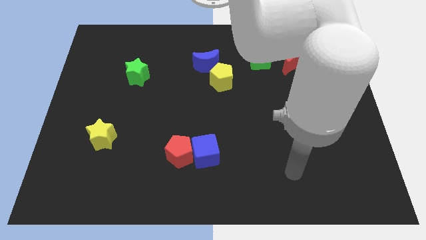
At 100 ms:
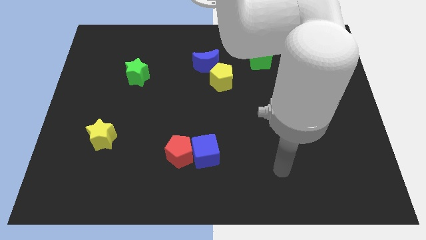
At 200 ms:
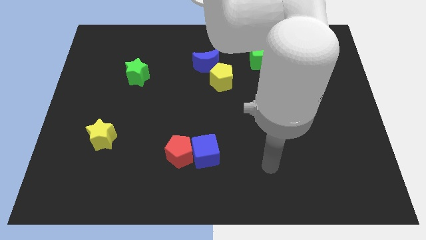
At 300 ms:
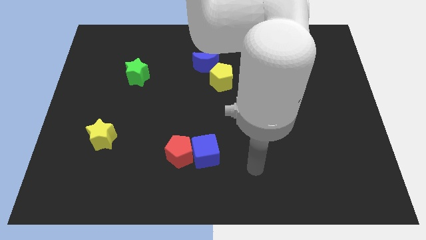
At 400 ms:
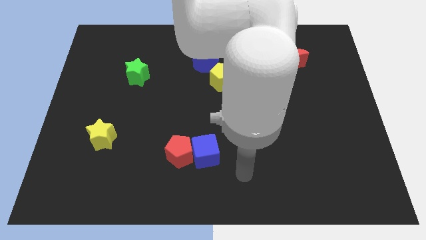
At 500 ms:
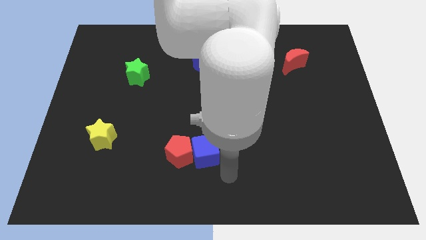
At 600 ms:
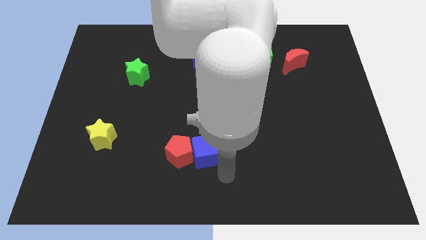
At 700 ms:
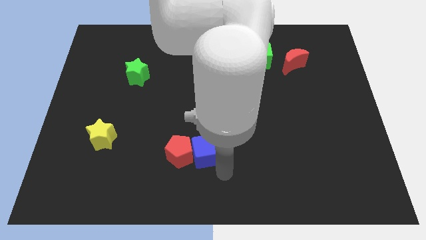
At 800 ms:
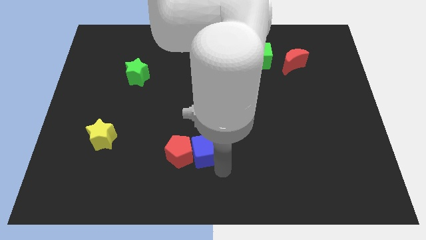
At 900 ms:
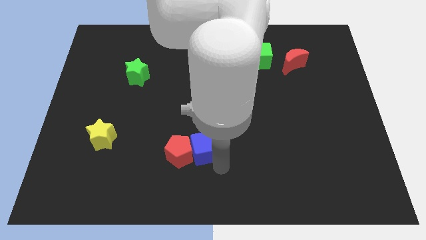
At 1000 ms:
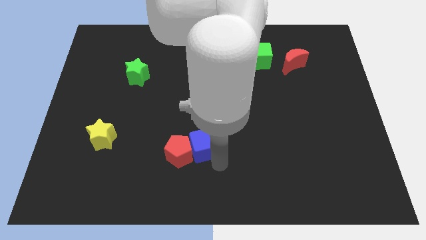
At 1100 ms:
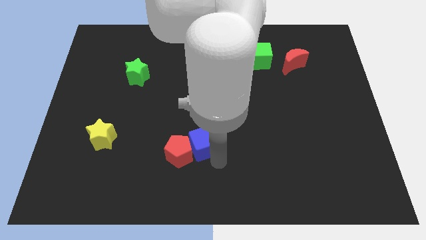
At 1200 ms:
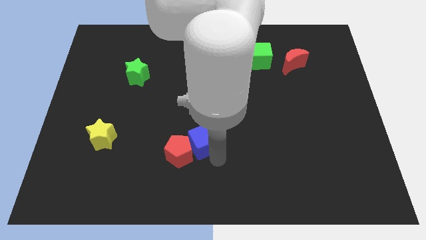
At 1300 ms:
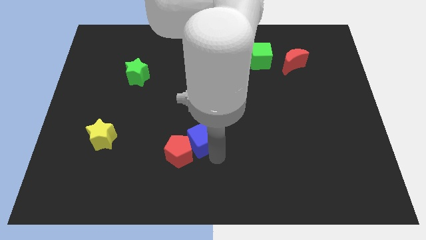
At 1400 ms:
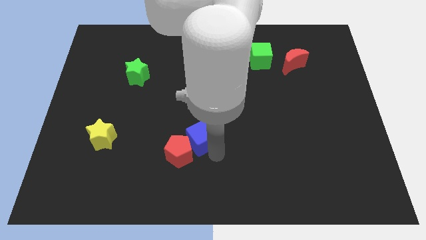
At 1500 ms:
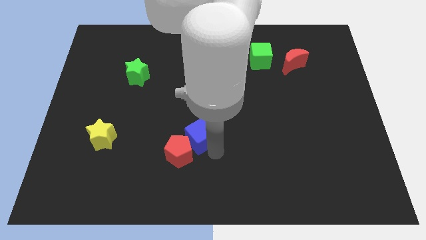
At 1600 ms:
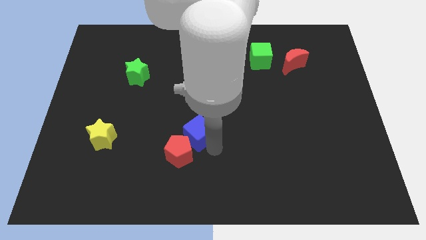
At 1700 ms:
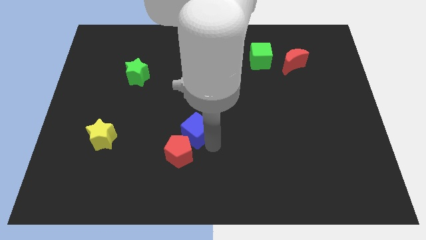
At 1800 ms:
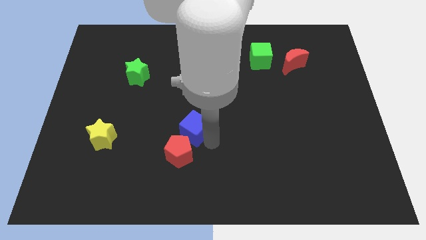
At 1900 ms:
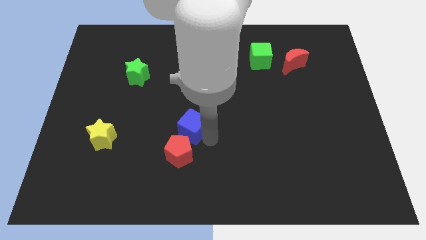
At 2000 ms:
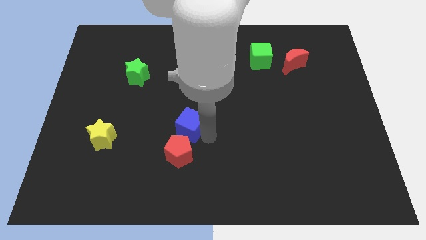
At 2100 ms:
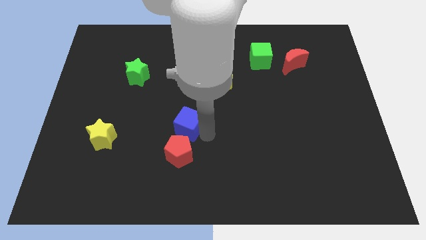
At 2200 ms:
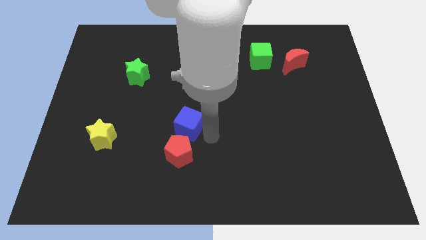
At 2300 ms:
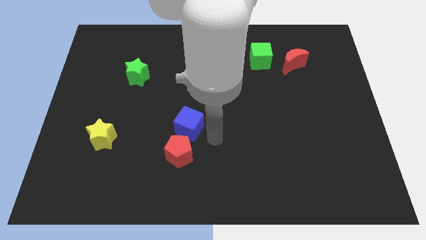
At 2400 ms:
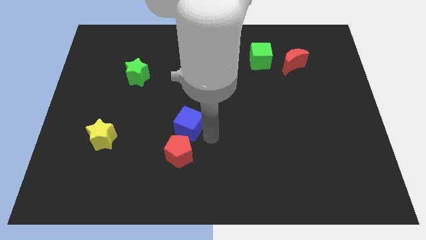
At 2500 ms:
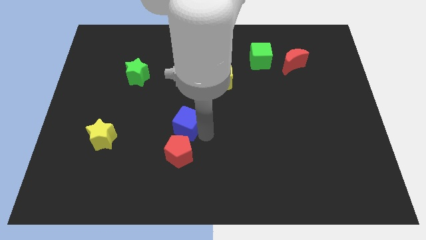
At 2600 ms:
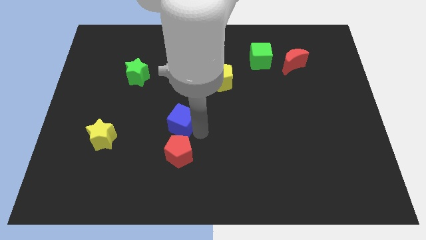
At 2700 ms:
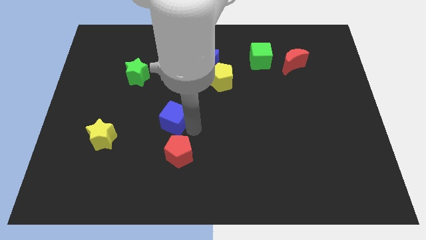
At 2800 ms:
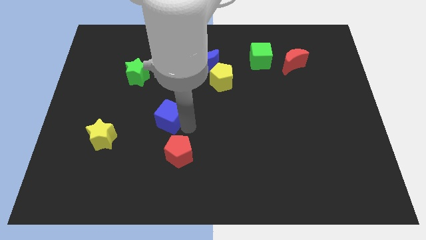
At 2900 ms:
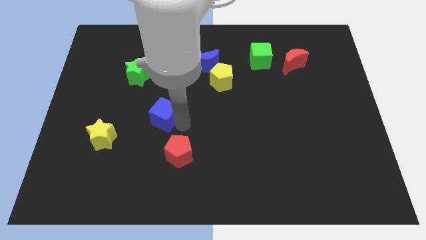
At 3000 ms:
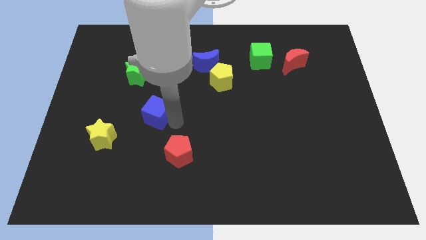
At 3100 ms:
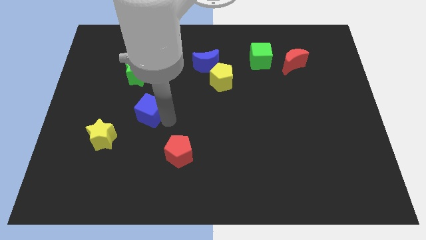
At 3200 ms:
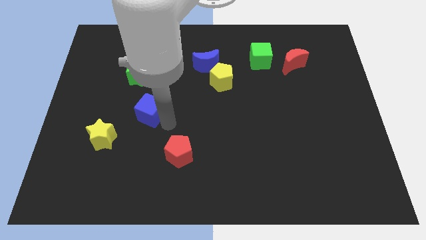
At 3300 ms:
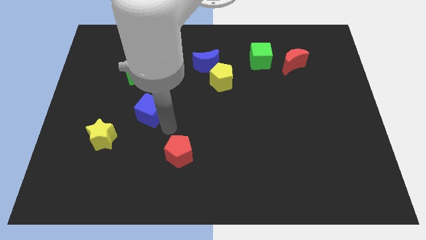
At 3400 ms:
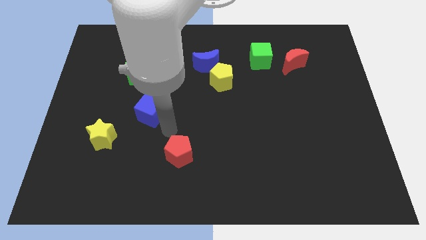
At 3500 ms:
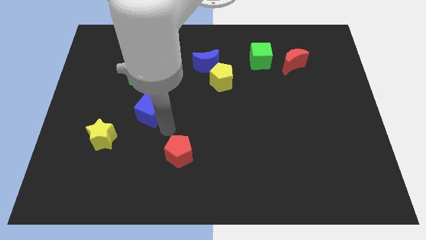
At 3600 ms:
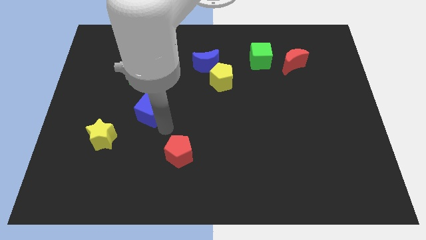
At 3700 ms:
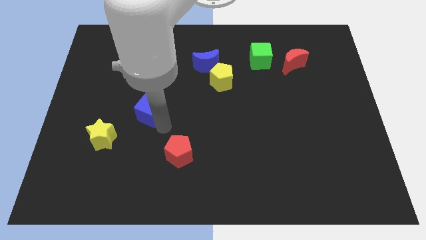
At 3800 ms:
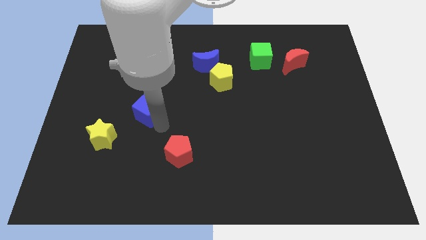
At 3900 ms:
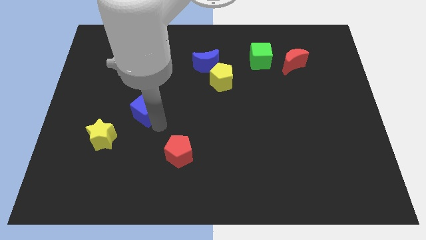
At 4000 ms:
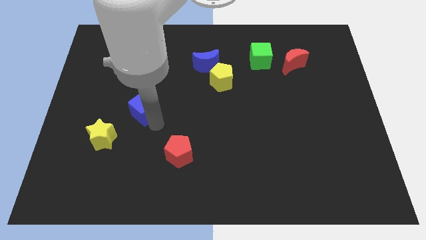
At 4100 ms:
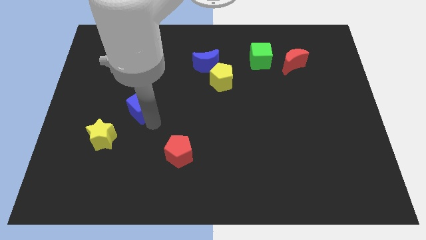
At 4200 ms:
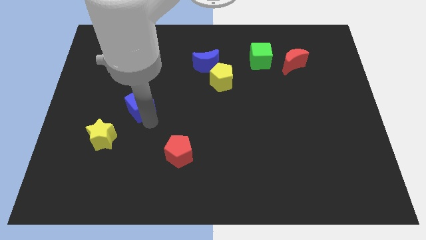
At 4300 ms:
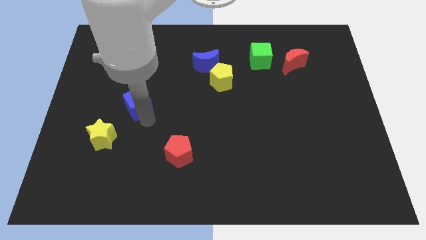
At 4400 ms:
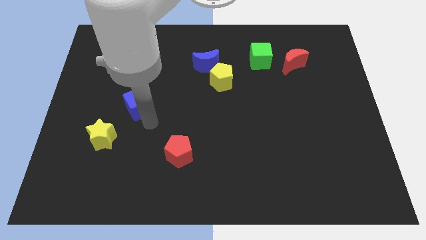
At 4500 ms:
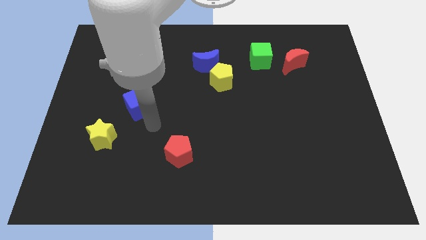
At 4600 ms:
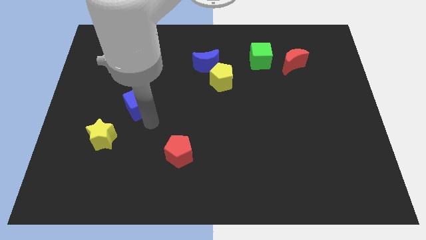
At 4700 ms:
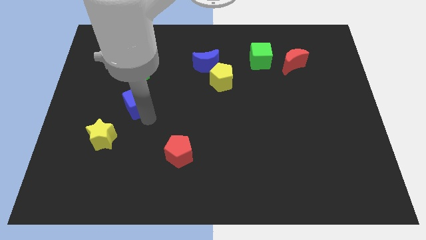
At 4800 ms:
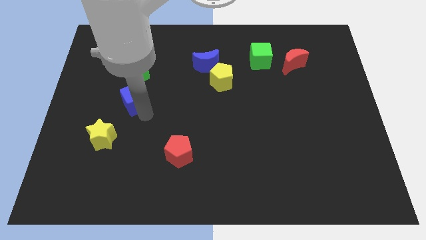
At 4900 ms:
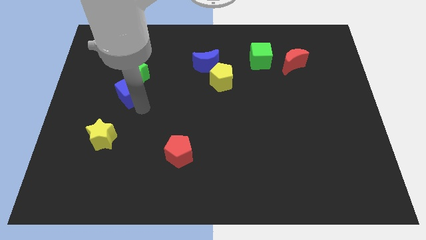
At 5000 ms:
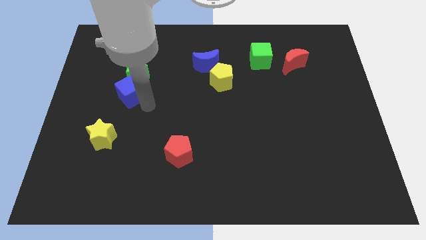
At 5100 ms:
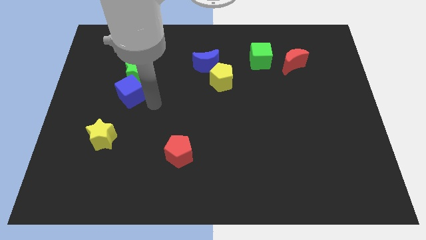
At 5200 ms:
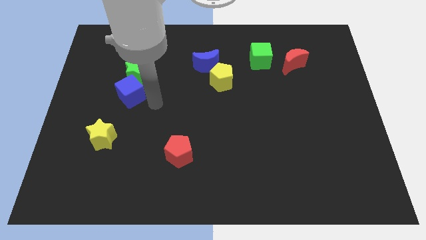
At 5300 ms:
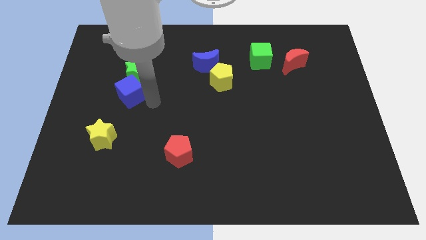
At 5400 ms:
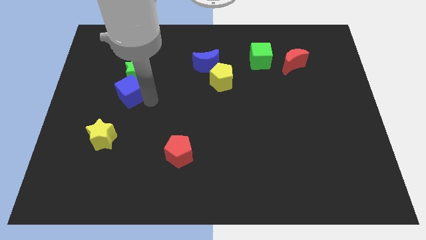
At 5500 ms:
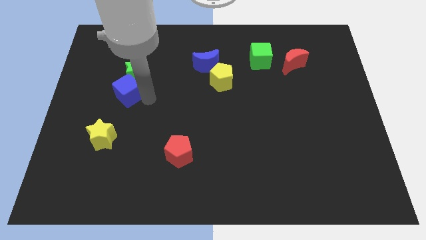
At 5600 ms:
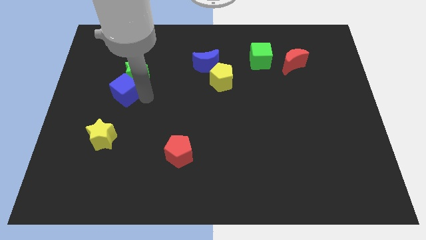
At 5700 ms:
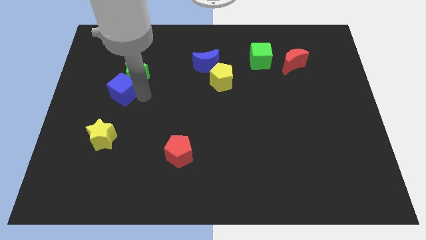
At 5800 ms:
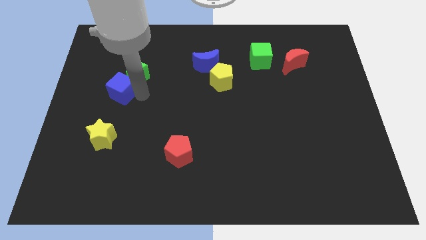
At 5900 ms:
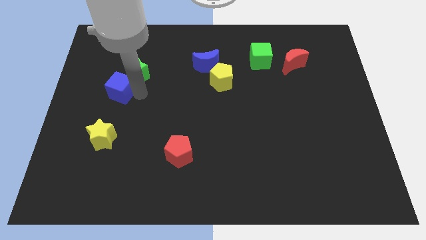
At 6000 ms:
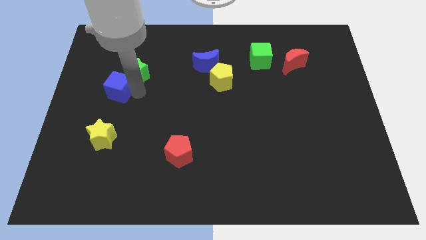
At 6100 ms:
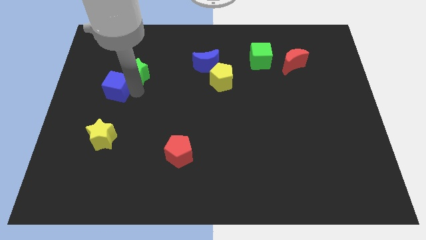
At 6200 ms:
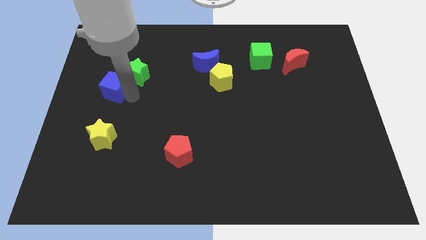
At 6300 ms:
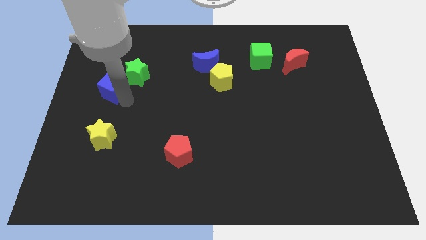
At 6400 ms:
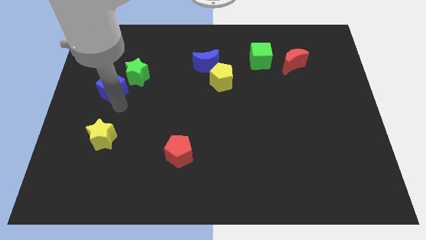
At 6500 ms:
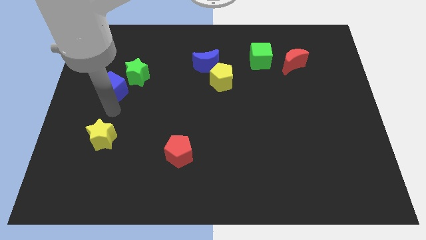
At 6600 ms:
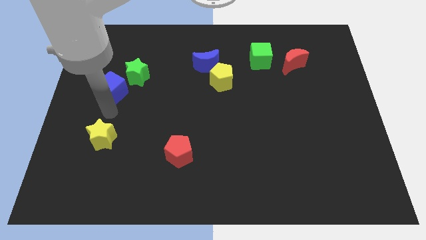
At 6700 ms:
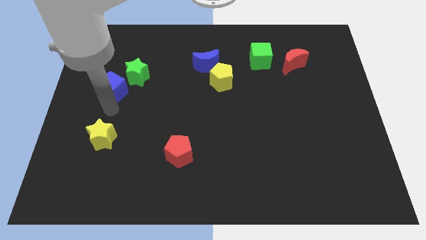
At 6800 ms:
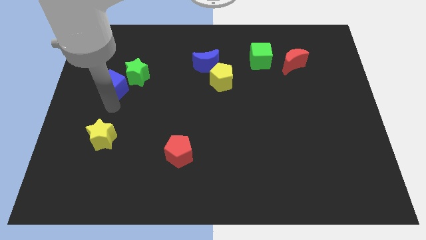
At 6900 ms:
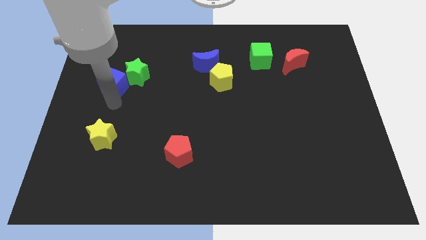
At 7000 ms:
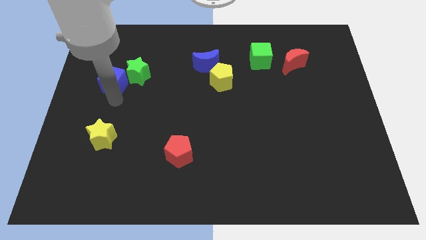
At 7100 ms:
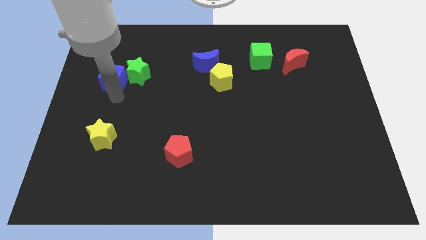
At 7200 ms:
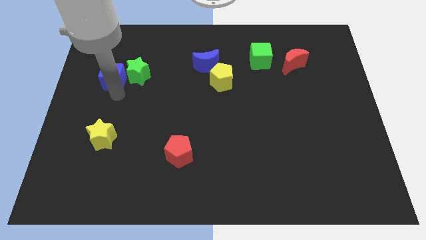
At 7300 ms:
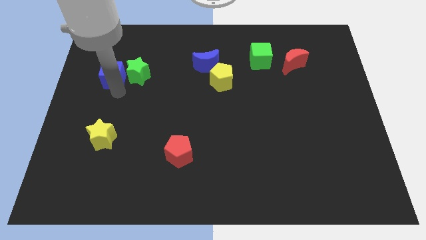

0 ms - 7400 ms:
move the blue cube to the top left of the green star
